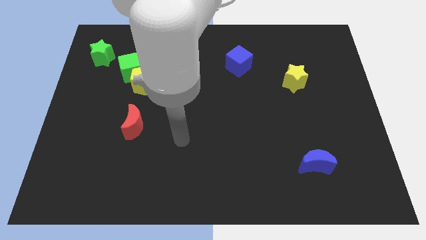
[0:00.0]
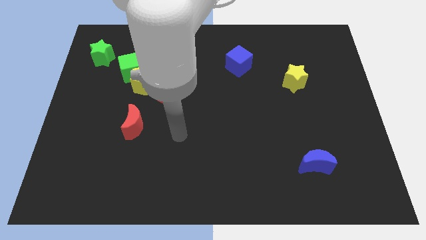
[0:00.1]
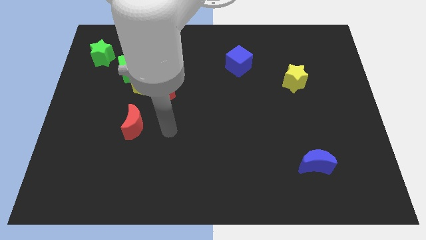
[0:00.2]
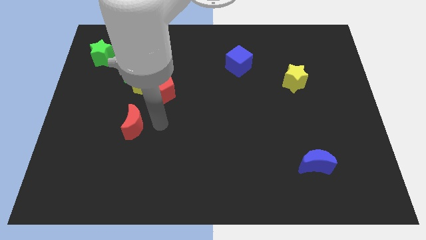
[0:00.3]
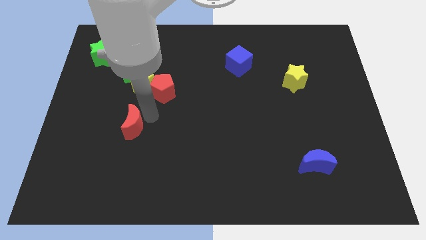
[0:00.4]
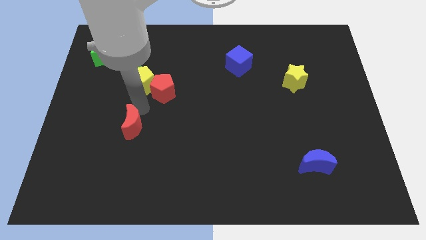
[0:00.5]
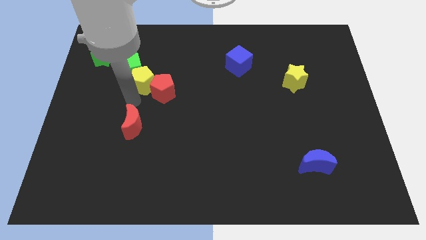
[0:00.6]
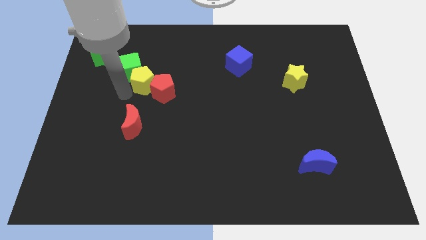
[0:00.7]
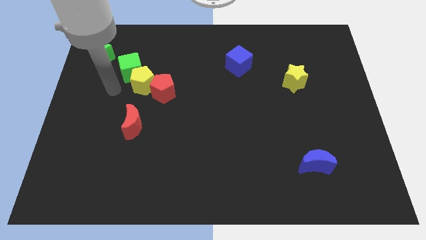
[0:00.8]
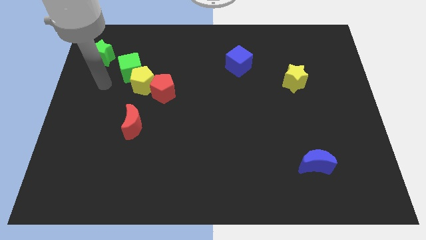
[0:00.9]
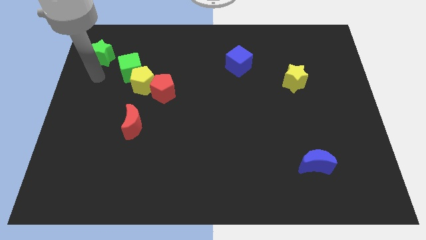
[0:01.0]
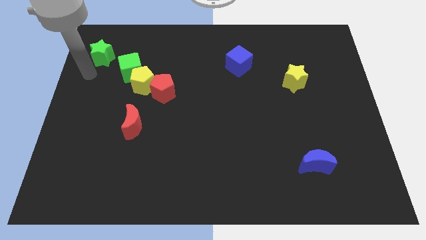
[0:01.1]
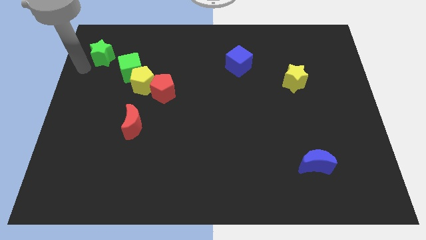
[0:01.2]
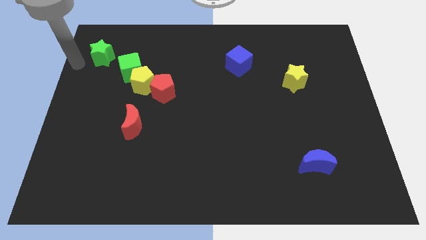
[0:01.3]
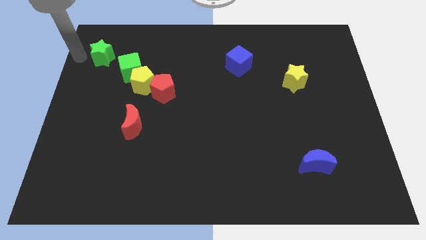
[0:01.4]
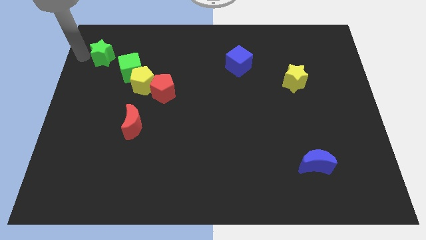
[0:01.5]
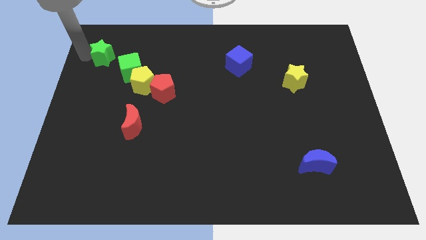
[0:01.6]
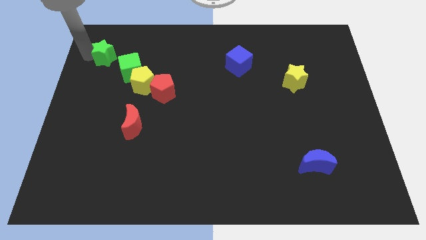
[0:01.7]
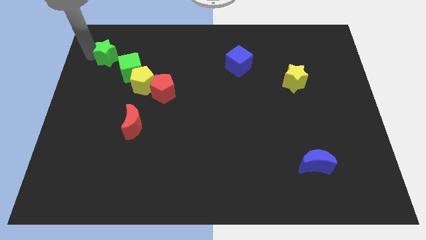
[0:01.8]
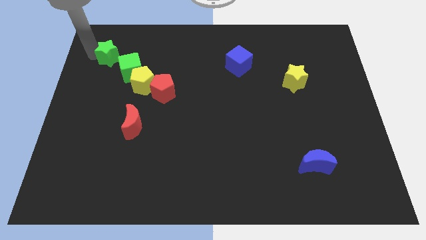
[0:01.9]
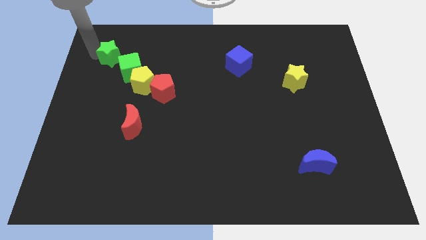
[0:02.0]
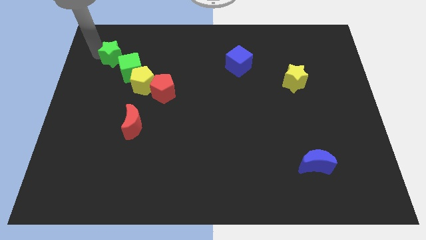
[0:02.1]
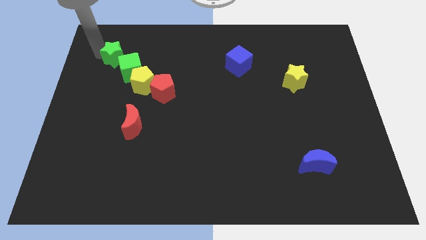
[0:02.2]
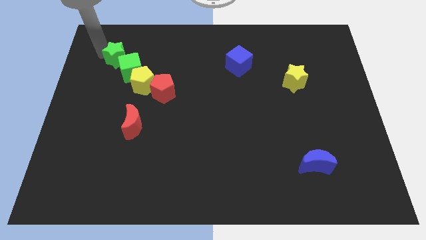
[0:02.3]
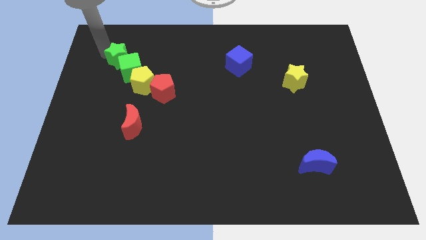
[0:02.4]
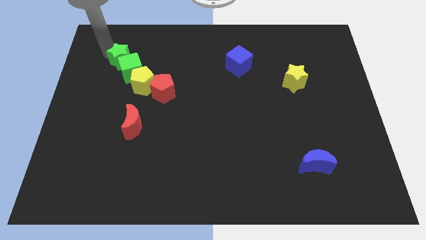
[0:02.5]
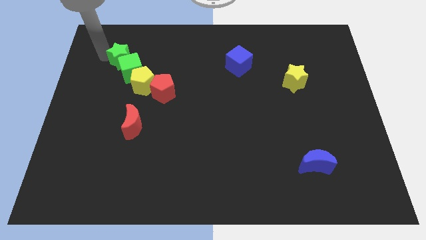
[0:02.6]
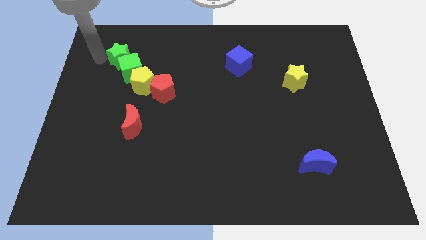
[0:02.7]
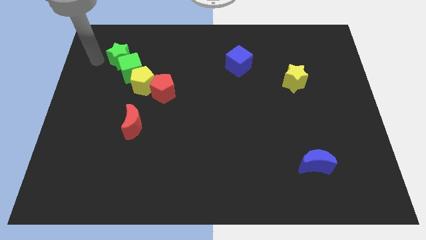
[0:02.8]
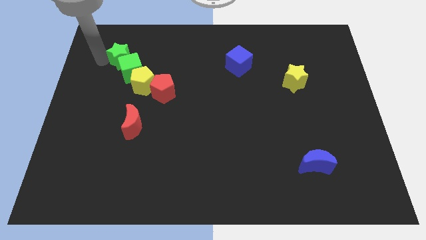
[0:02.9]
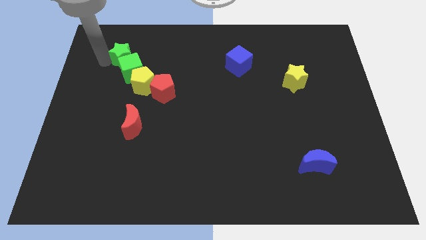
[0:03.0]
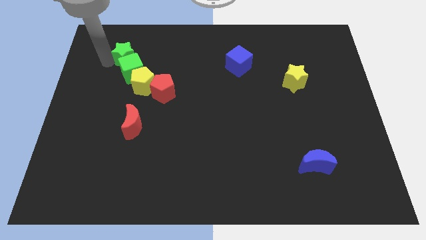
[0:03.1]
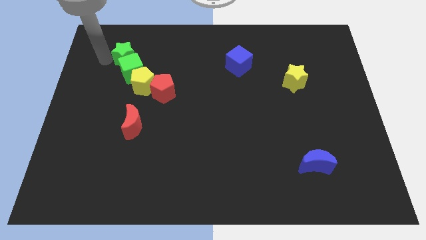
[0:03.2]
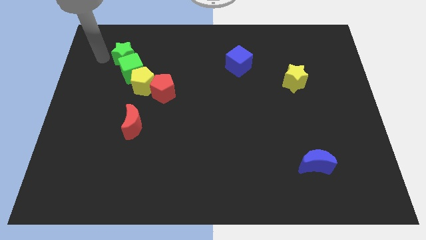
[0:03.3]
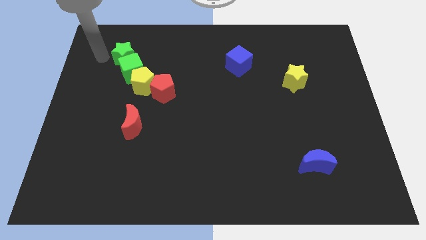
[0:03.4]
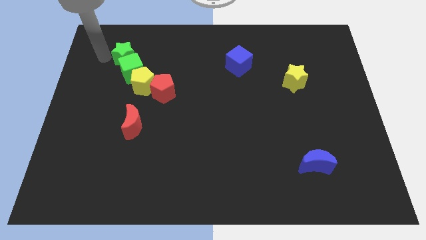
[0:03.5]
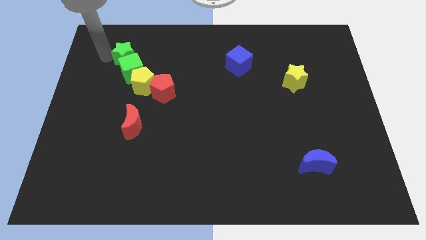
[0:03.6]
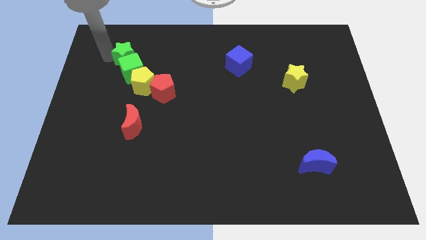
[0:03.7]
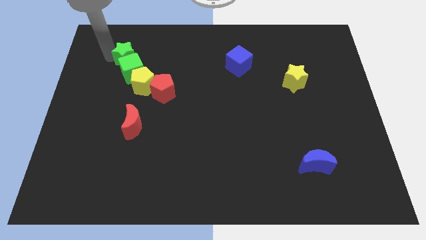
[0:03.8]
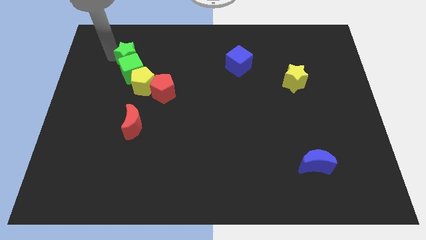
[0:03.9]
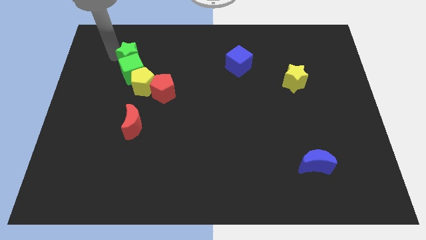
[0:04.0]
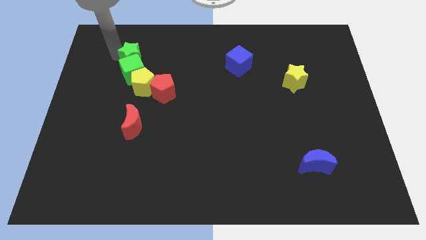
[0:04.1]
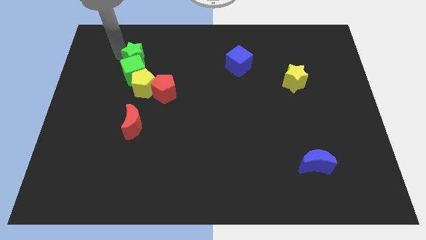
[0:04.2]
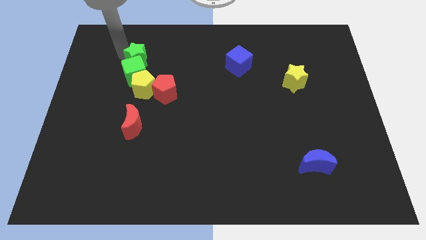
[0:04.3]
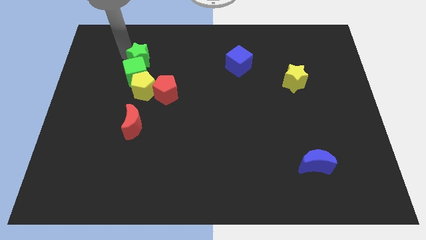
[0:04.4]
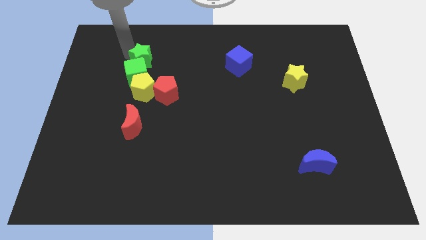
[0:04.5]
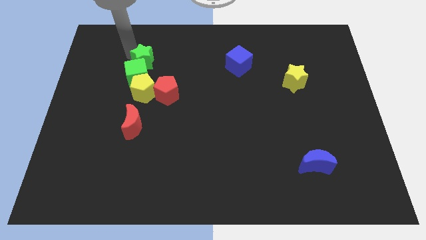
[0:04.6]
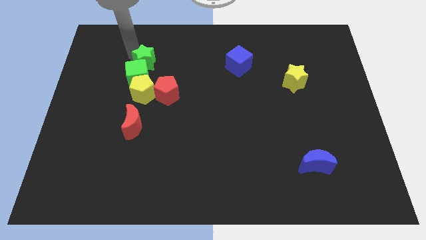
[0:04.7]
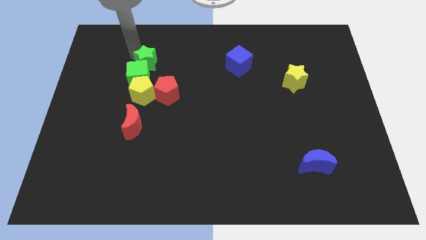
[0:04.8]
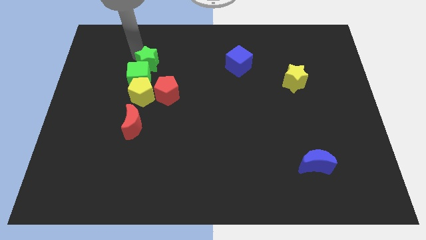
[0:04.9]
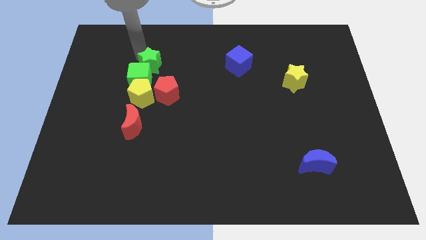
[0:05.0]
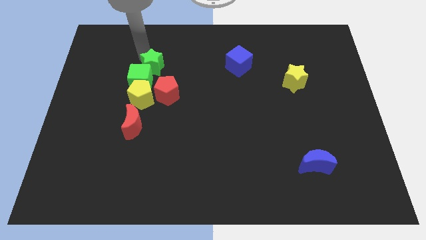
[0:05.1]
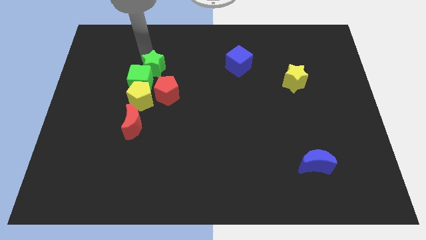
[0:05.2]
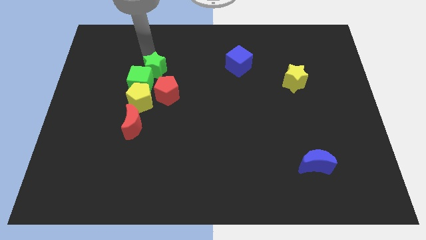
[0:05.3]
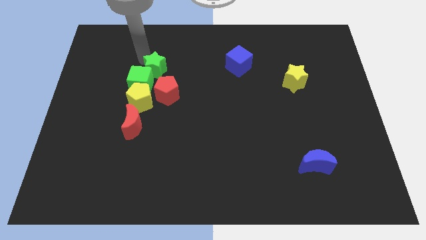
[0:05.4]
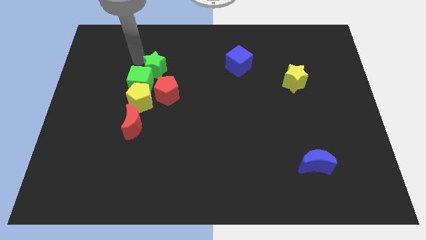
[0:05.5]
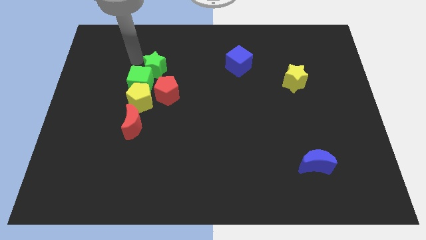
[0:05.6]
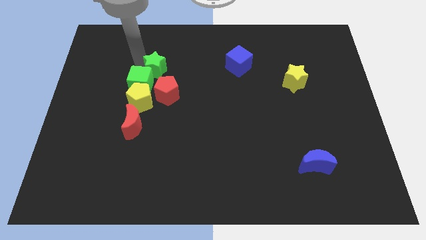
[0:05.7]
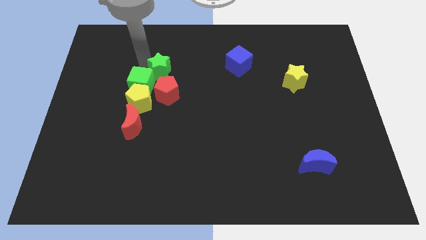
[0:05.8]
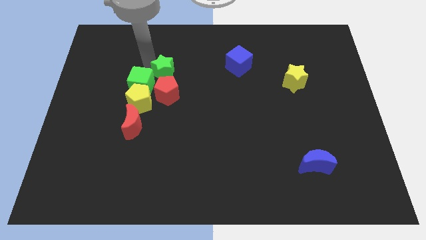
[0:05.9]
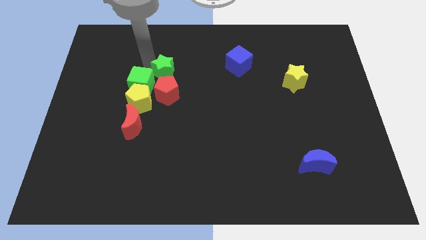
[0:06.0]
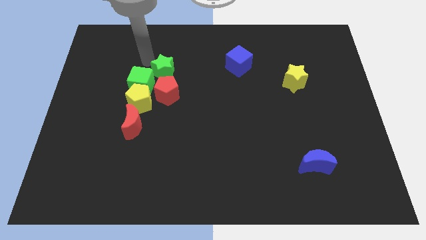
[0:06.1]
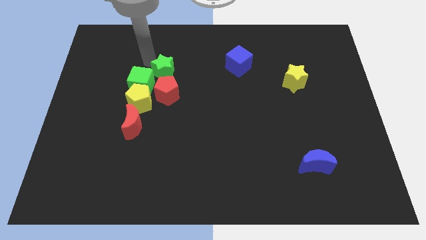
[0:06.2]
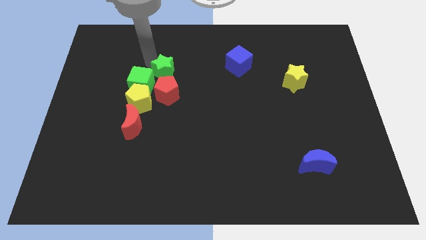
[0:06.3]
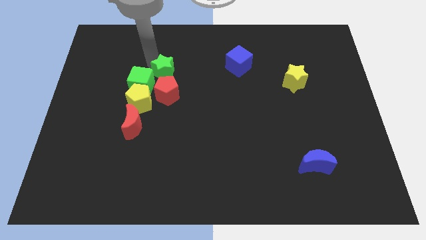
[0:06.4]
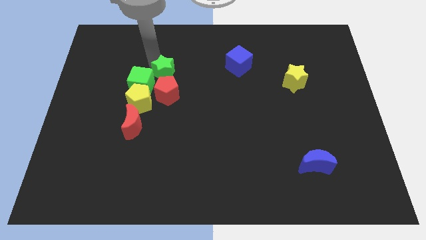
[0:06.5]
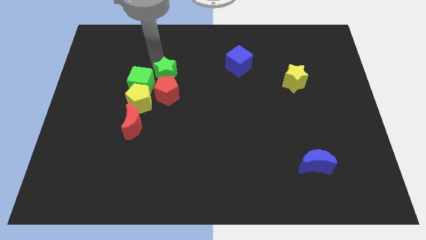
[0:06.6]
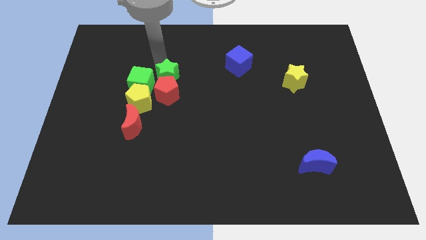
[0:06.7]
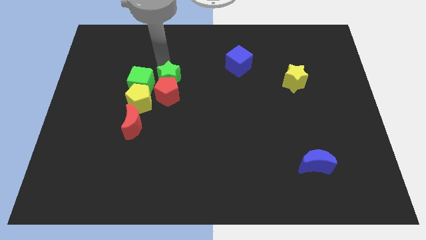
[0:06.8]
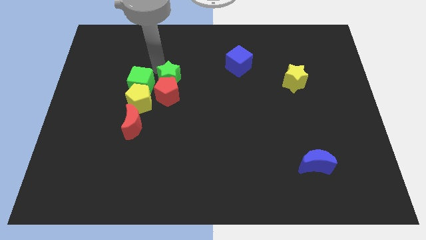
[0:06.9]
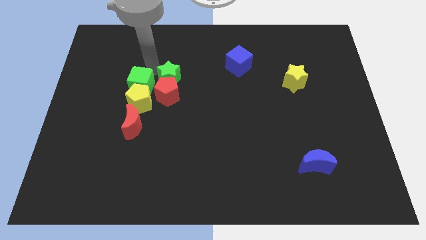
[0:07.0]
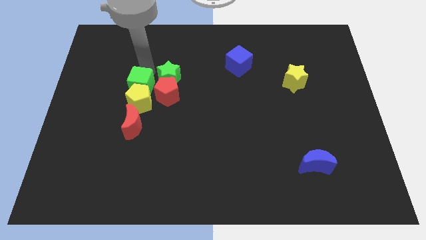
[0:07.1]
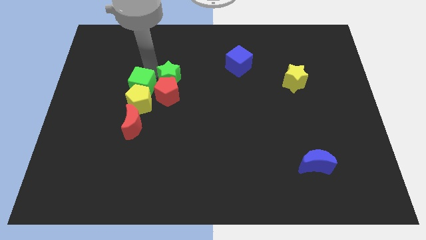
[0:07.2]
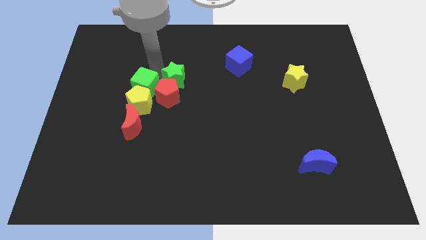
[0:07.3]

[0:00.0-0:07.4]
move the green star to the middle
